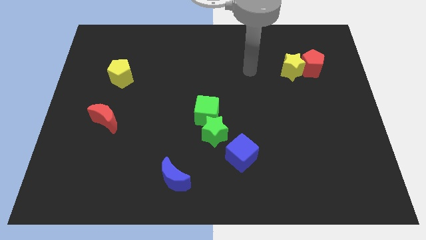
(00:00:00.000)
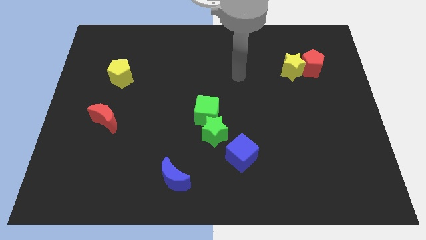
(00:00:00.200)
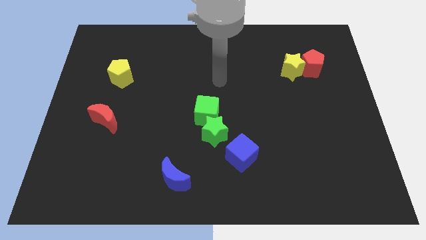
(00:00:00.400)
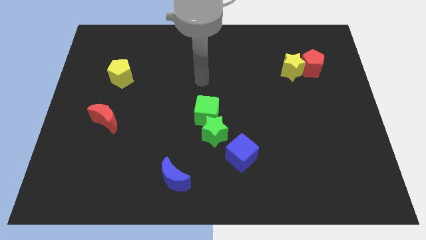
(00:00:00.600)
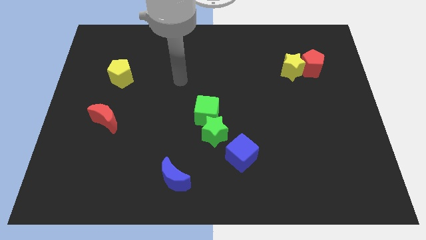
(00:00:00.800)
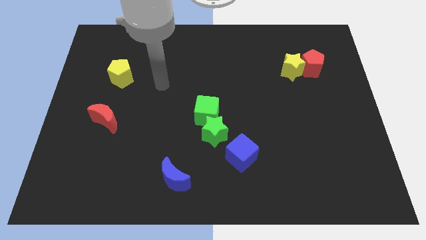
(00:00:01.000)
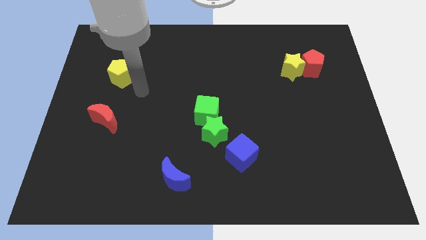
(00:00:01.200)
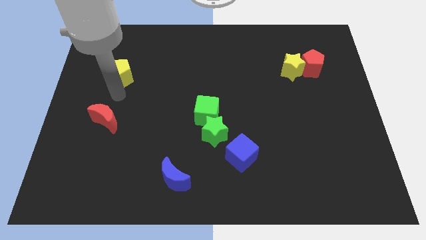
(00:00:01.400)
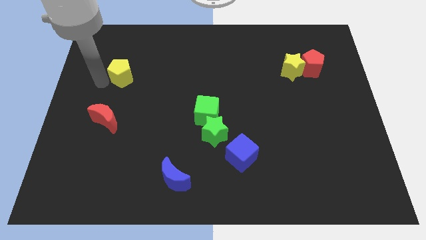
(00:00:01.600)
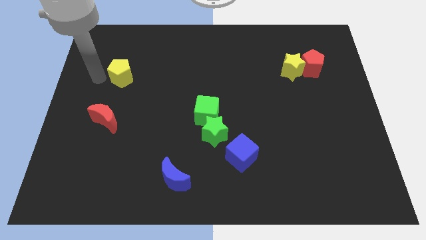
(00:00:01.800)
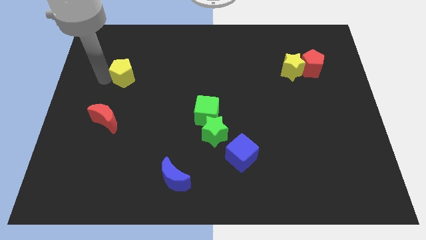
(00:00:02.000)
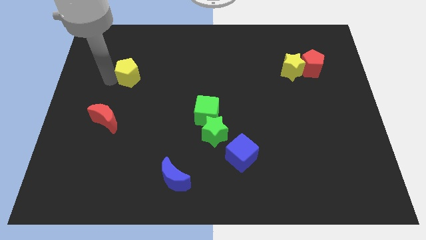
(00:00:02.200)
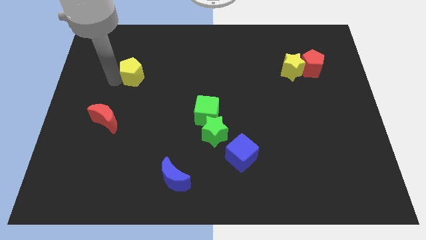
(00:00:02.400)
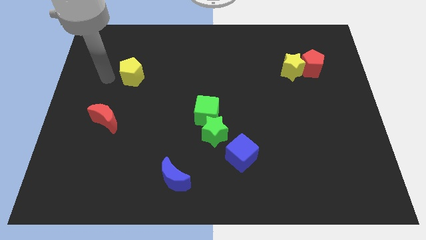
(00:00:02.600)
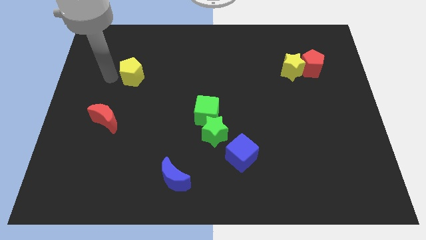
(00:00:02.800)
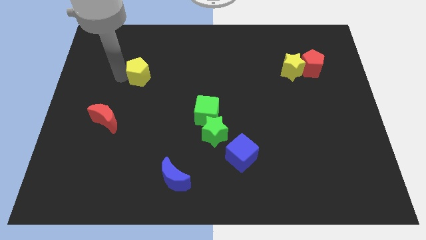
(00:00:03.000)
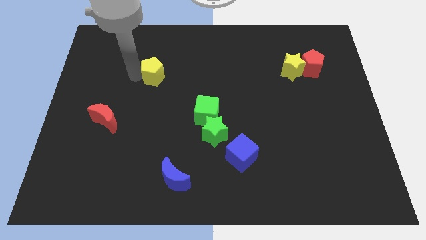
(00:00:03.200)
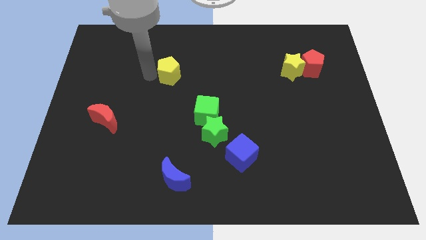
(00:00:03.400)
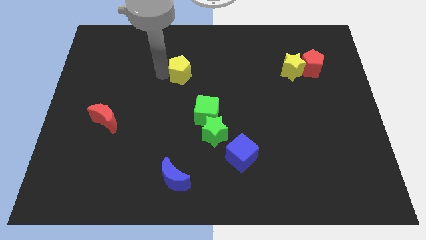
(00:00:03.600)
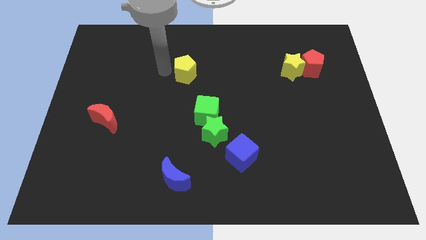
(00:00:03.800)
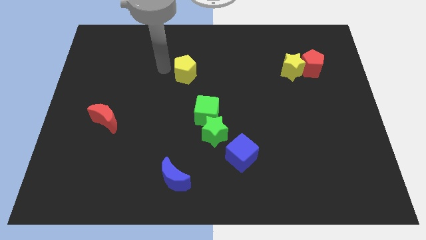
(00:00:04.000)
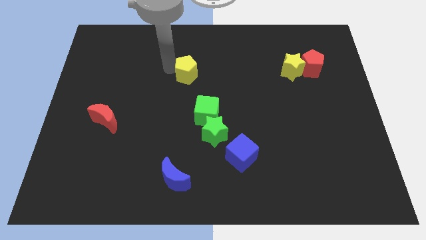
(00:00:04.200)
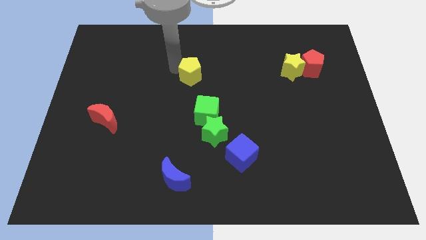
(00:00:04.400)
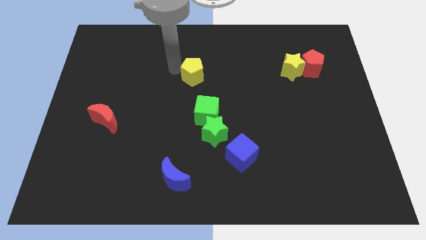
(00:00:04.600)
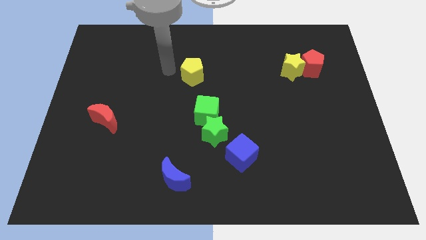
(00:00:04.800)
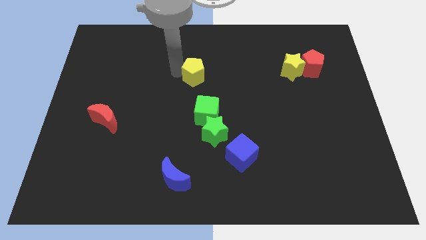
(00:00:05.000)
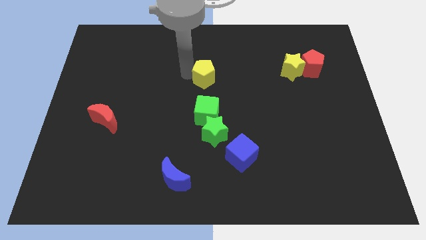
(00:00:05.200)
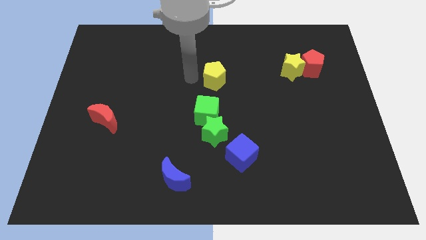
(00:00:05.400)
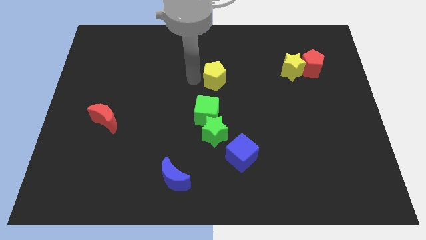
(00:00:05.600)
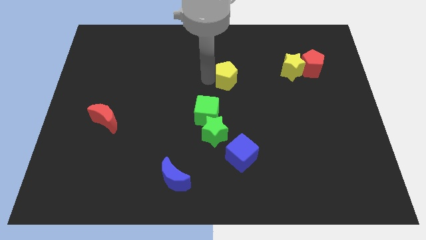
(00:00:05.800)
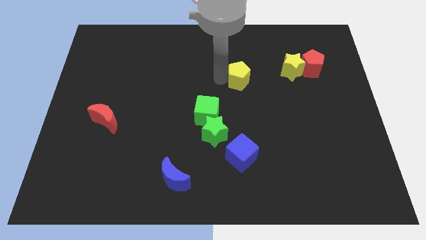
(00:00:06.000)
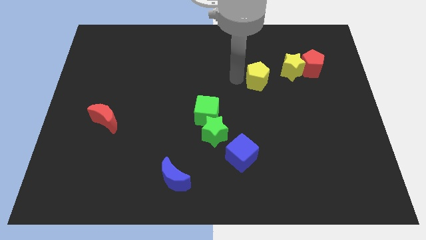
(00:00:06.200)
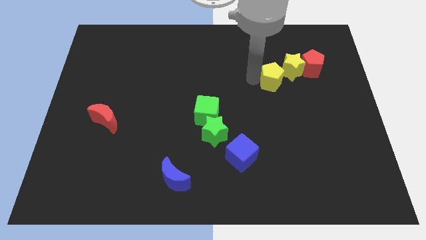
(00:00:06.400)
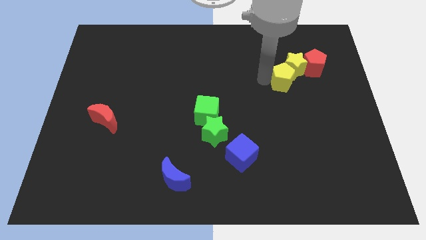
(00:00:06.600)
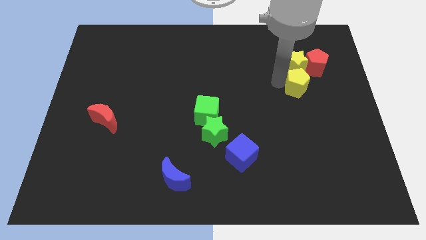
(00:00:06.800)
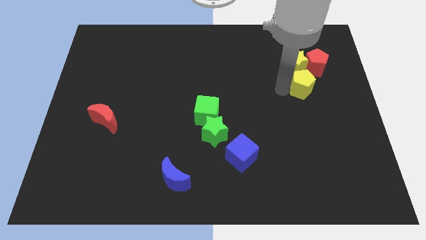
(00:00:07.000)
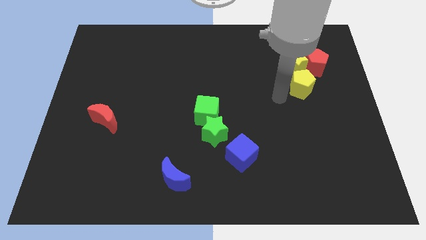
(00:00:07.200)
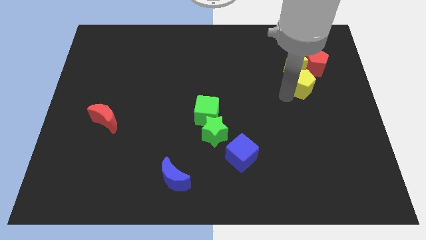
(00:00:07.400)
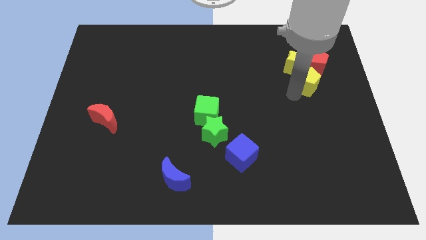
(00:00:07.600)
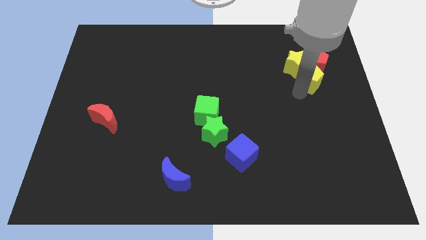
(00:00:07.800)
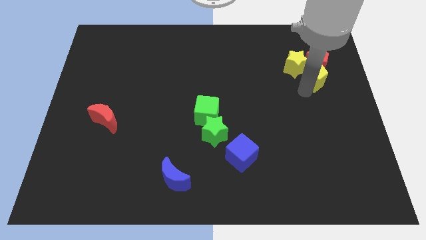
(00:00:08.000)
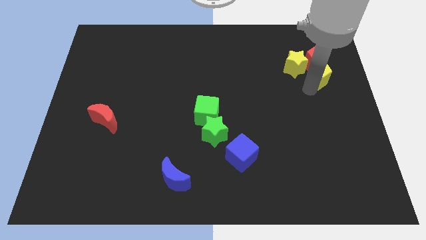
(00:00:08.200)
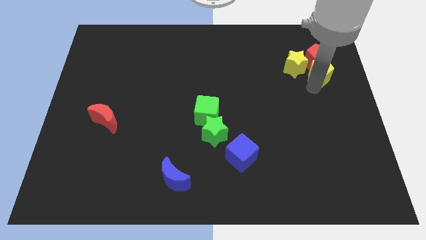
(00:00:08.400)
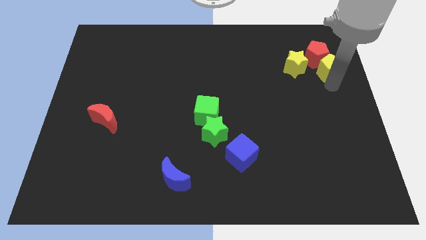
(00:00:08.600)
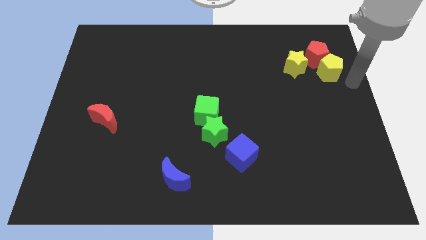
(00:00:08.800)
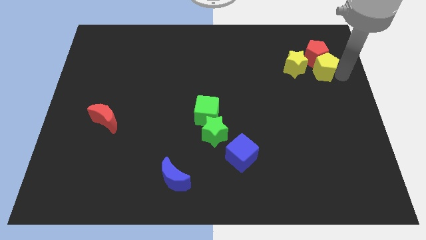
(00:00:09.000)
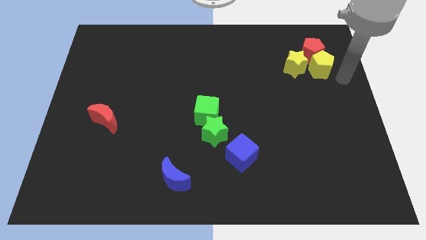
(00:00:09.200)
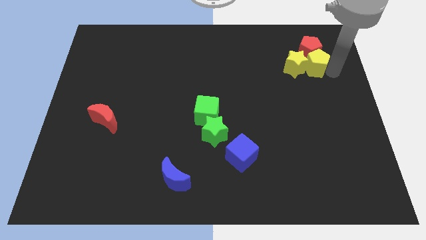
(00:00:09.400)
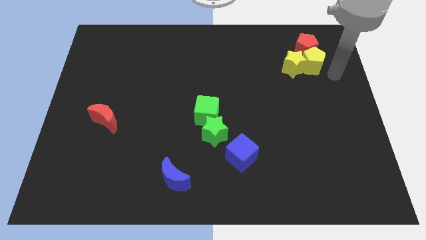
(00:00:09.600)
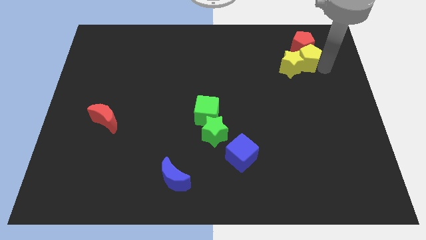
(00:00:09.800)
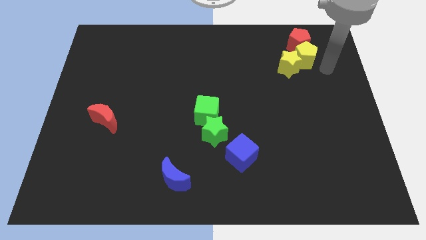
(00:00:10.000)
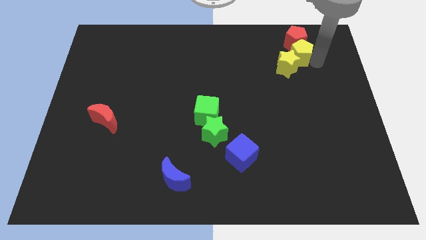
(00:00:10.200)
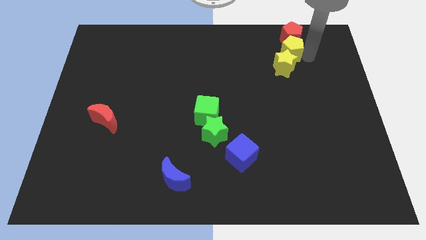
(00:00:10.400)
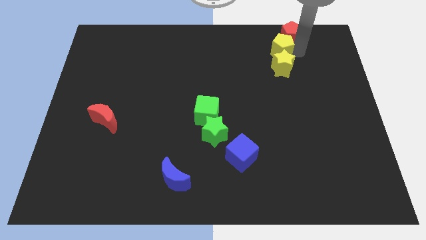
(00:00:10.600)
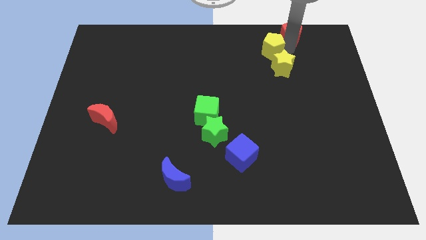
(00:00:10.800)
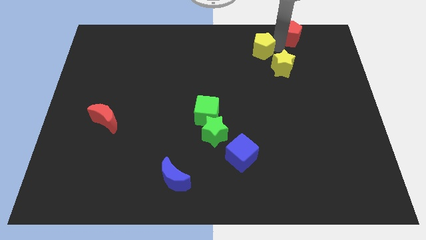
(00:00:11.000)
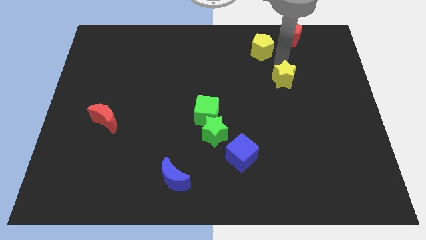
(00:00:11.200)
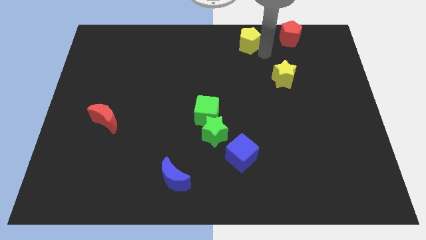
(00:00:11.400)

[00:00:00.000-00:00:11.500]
push the yellow pentagon to the top side

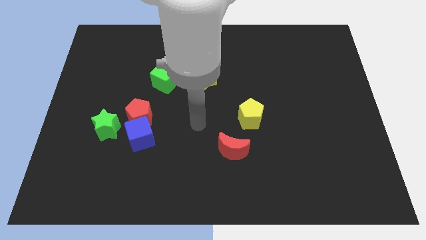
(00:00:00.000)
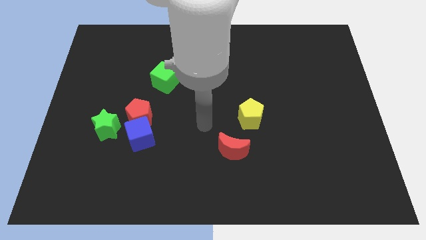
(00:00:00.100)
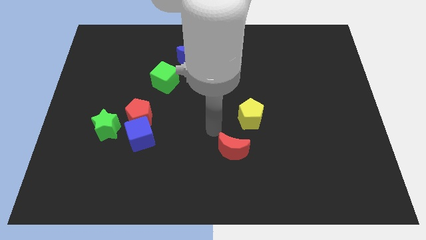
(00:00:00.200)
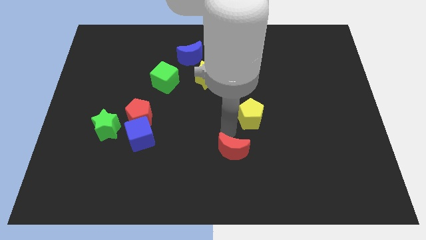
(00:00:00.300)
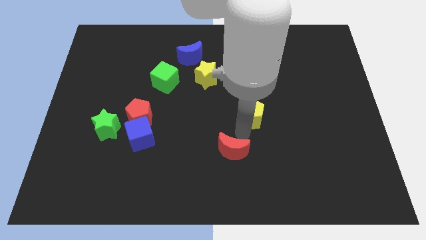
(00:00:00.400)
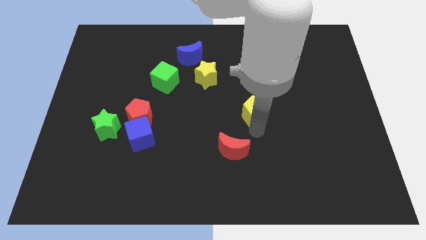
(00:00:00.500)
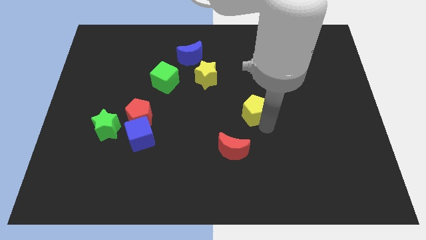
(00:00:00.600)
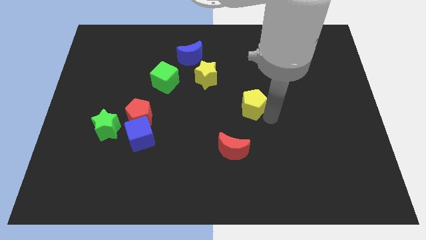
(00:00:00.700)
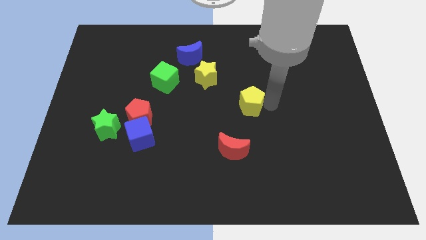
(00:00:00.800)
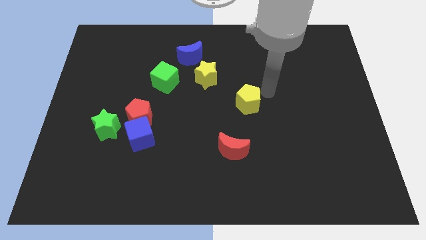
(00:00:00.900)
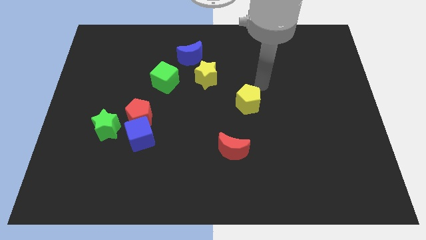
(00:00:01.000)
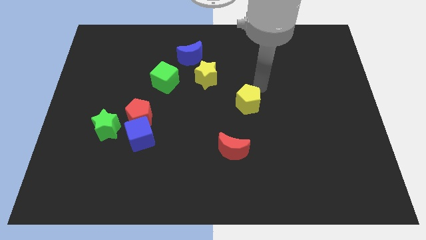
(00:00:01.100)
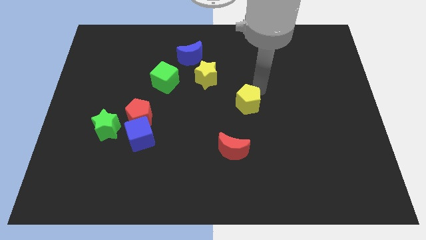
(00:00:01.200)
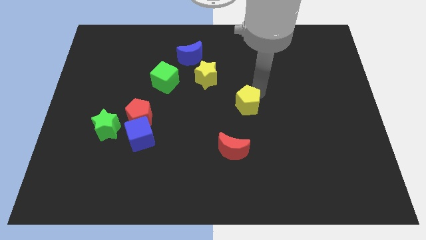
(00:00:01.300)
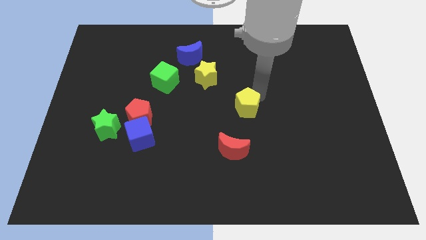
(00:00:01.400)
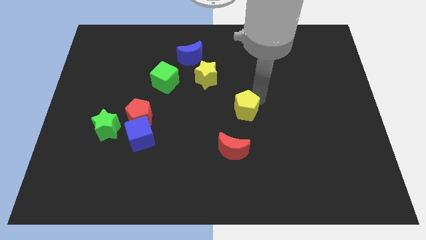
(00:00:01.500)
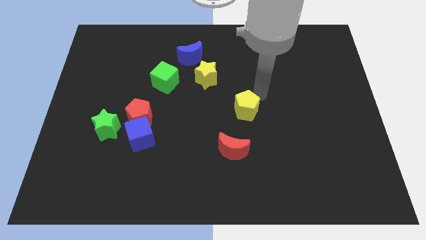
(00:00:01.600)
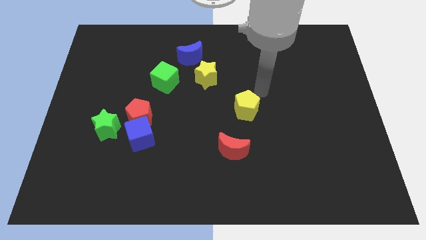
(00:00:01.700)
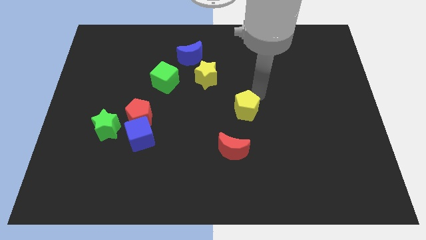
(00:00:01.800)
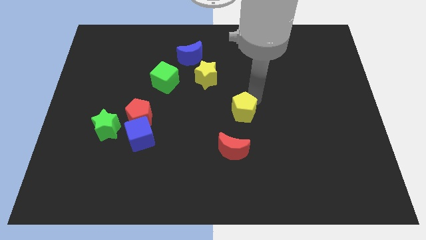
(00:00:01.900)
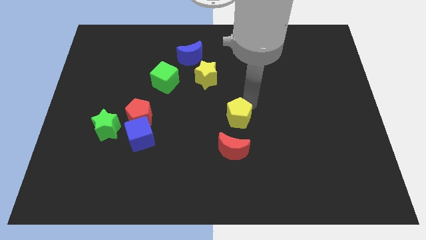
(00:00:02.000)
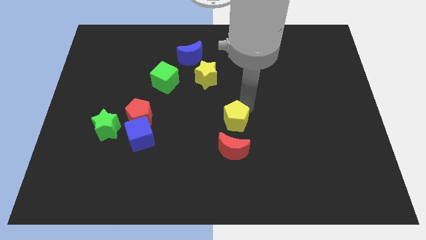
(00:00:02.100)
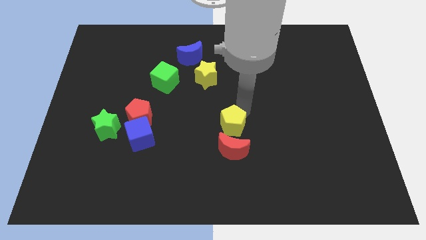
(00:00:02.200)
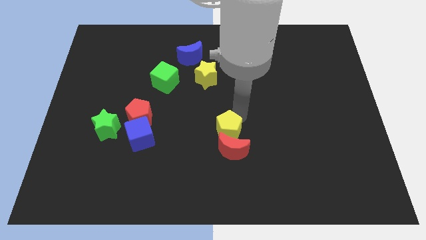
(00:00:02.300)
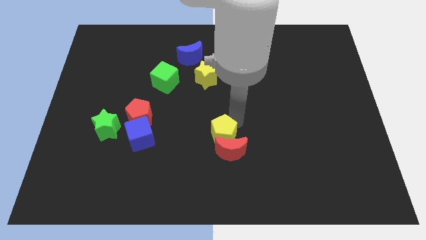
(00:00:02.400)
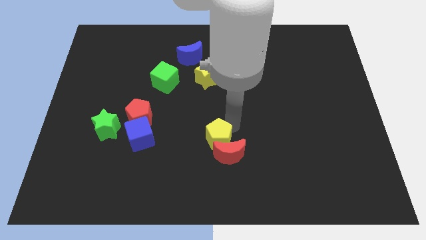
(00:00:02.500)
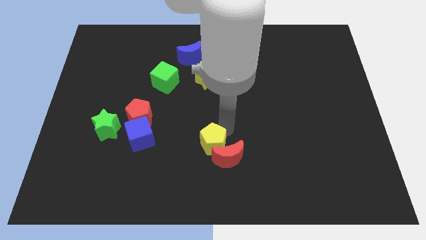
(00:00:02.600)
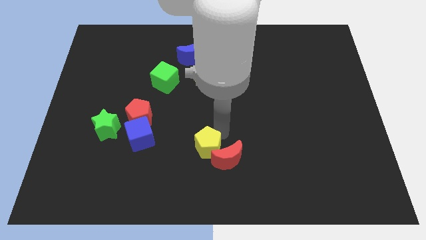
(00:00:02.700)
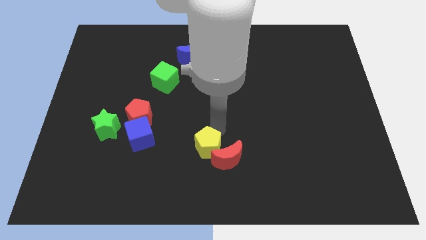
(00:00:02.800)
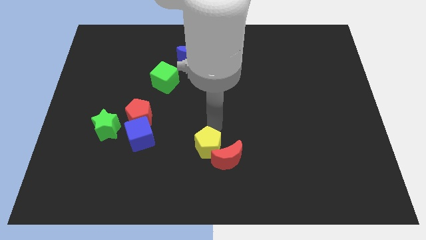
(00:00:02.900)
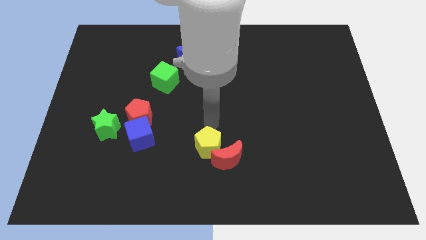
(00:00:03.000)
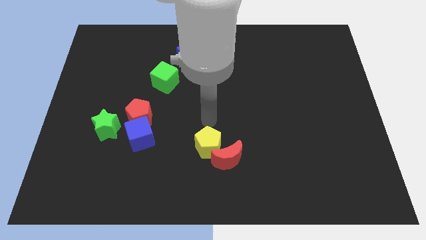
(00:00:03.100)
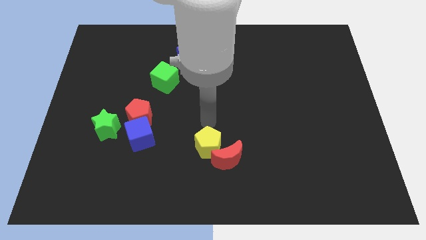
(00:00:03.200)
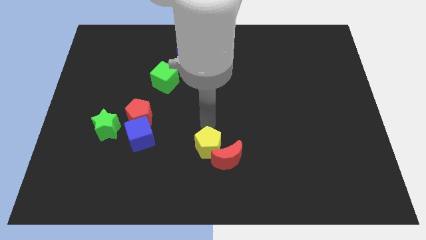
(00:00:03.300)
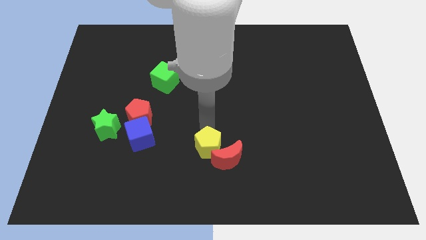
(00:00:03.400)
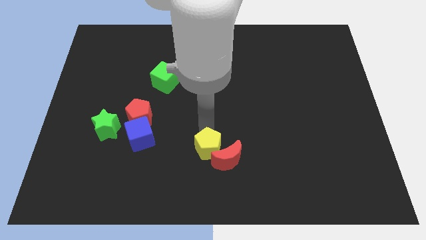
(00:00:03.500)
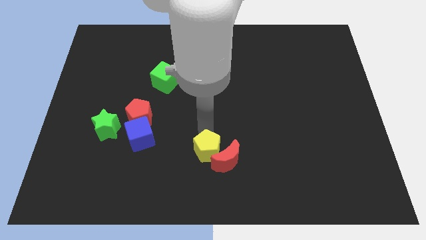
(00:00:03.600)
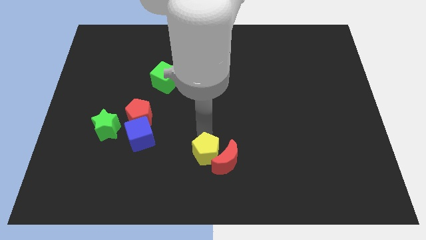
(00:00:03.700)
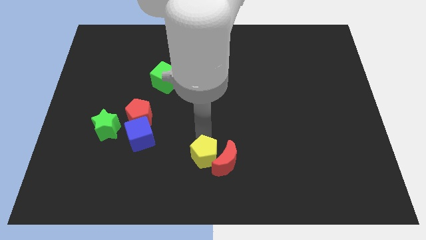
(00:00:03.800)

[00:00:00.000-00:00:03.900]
put the yellow pentagon to the bottom
